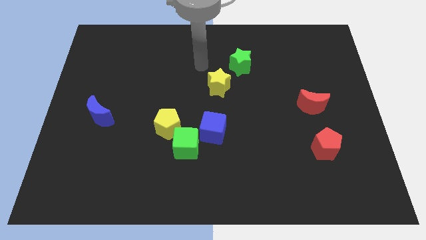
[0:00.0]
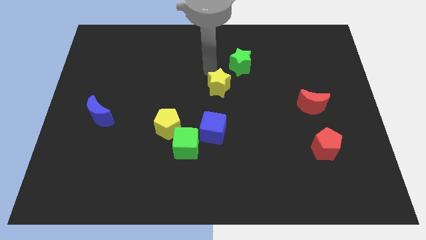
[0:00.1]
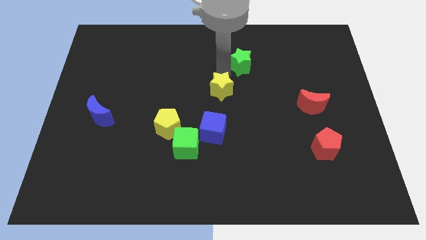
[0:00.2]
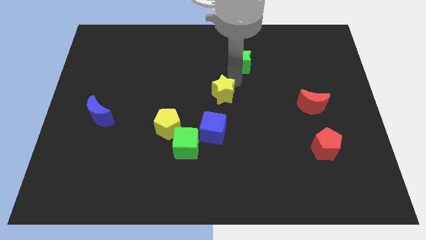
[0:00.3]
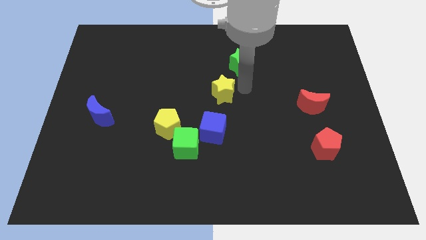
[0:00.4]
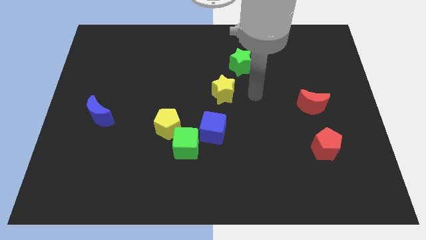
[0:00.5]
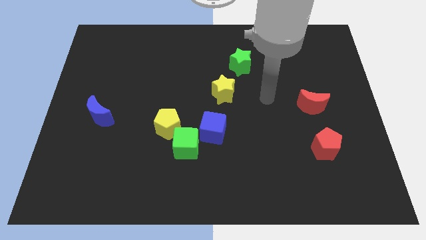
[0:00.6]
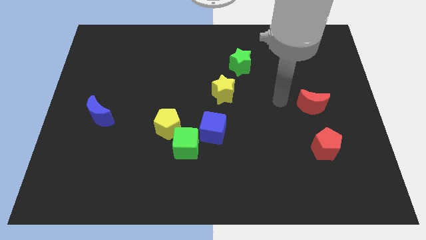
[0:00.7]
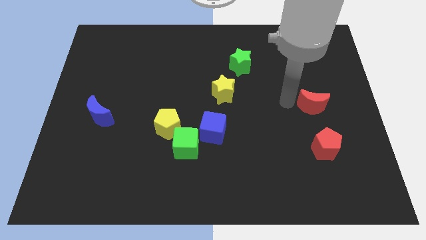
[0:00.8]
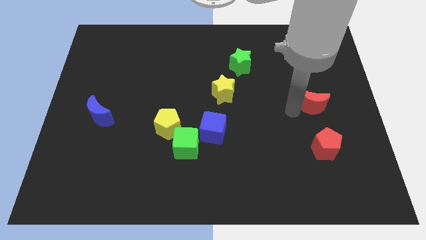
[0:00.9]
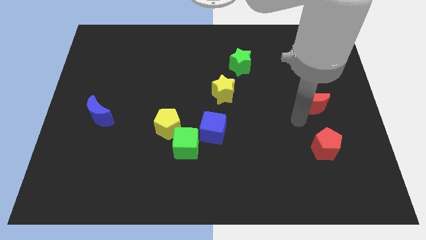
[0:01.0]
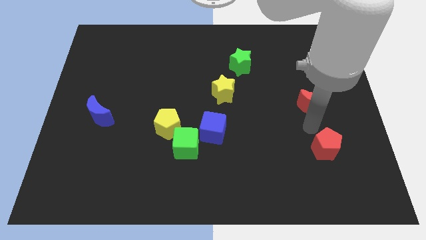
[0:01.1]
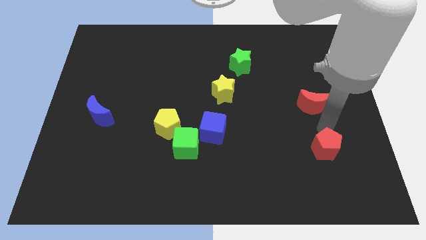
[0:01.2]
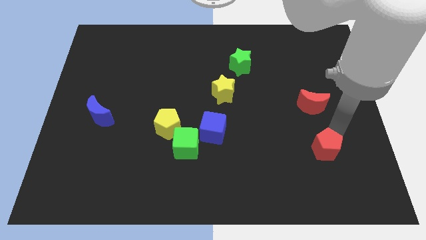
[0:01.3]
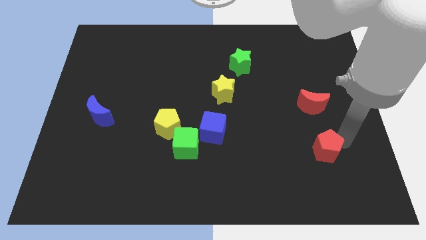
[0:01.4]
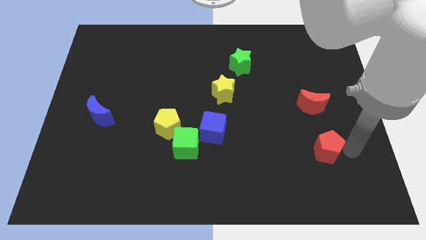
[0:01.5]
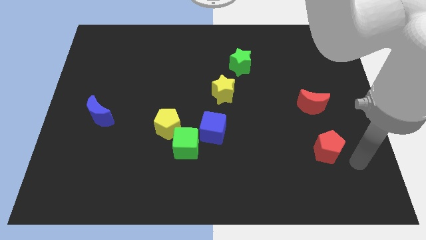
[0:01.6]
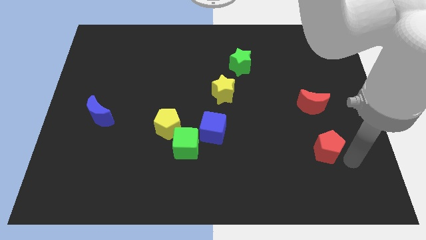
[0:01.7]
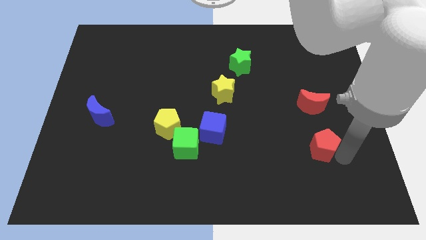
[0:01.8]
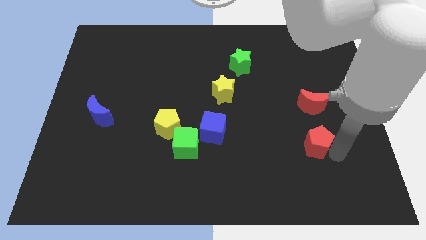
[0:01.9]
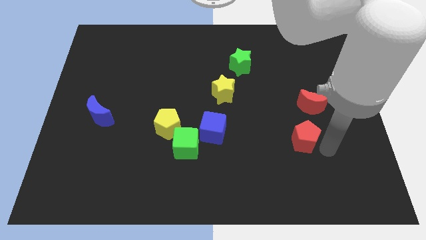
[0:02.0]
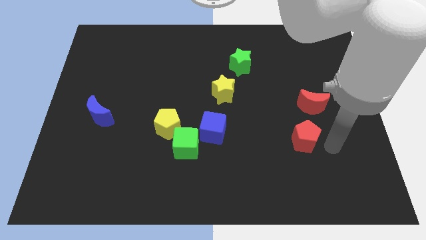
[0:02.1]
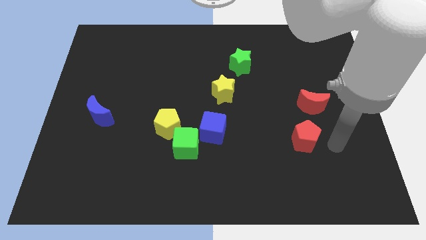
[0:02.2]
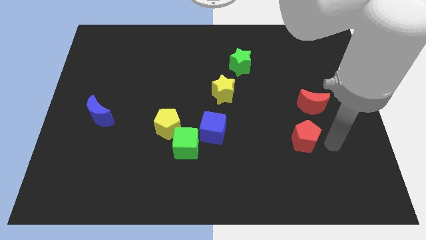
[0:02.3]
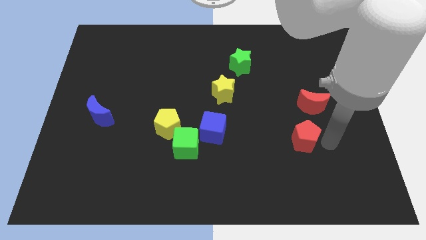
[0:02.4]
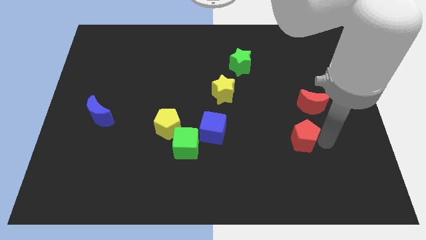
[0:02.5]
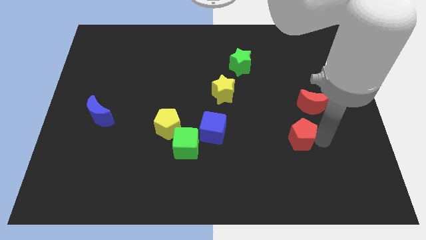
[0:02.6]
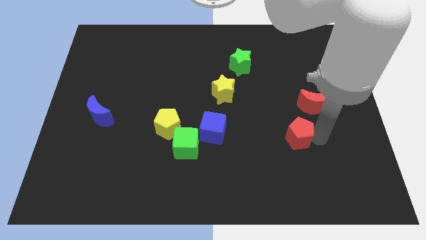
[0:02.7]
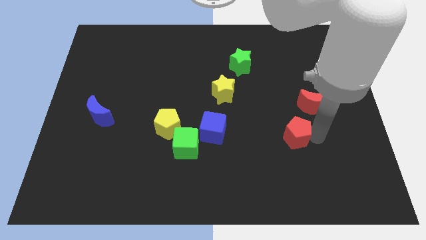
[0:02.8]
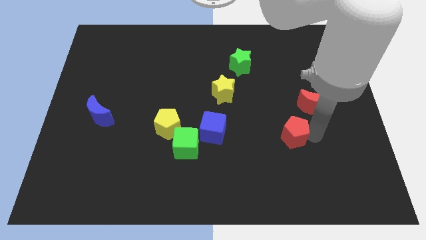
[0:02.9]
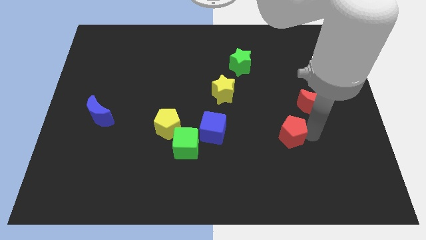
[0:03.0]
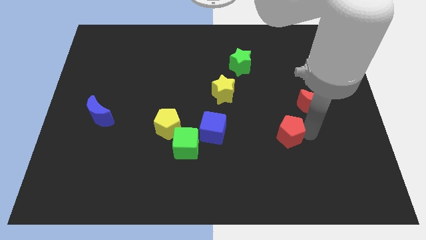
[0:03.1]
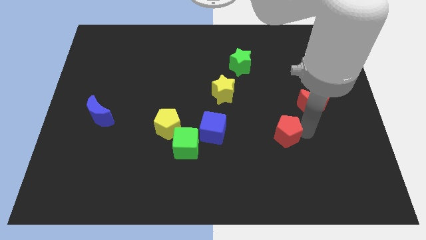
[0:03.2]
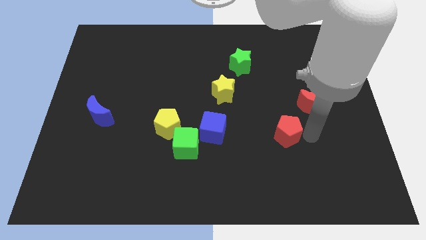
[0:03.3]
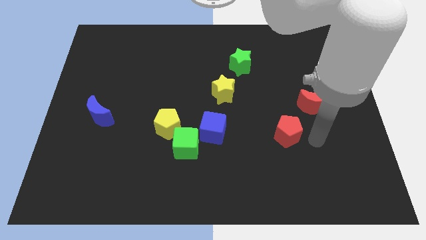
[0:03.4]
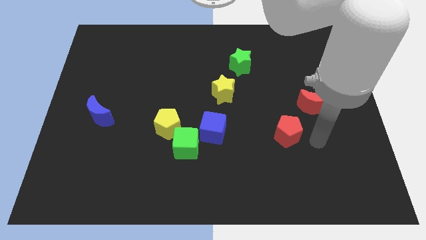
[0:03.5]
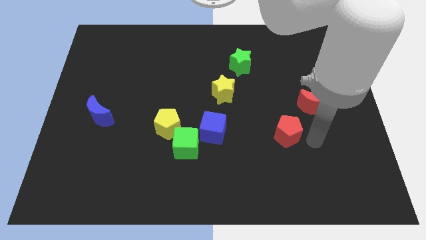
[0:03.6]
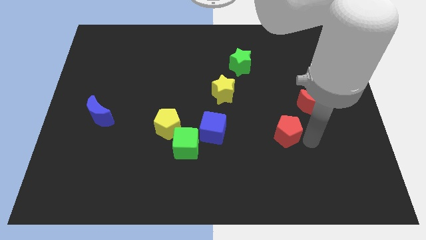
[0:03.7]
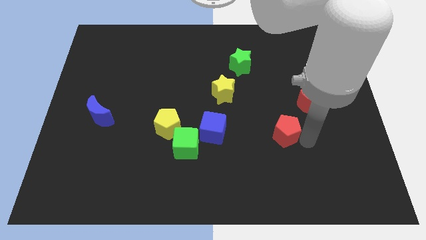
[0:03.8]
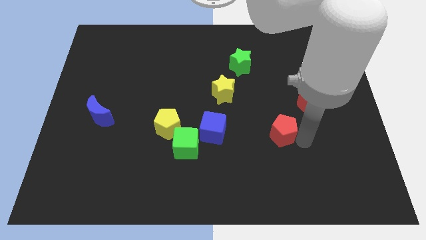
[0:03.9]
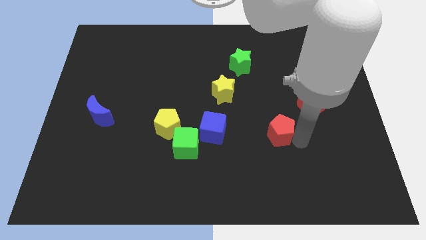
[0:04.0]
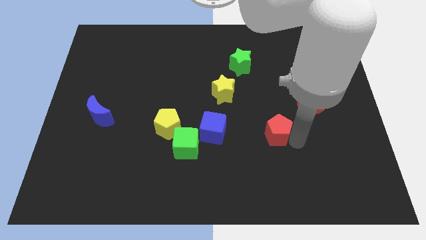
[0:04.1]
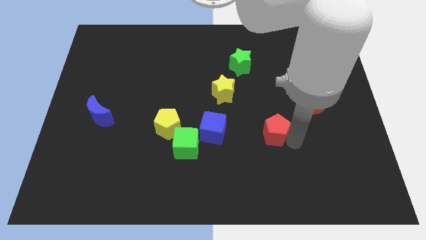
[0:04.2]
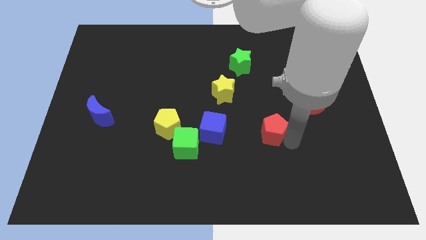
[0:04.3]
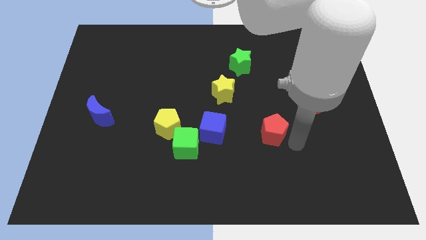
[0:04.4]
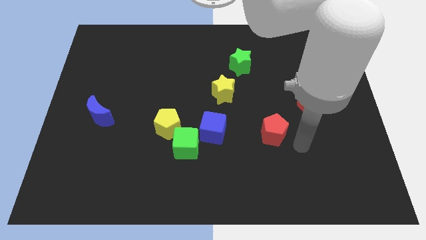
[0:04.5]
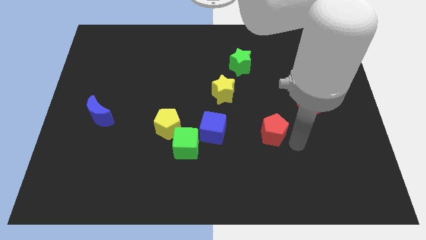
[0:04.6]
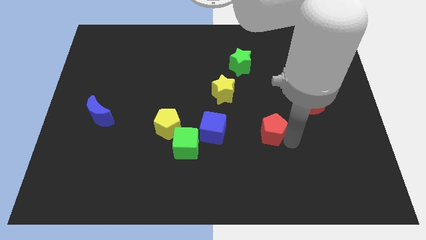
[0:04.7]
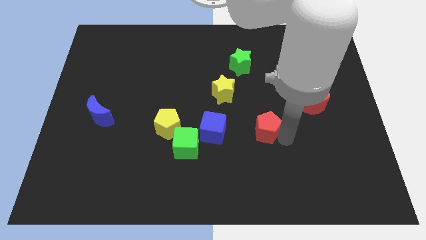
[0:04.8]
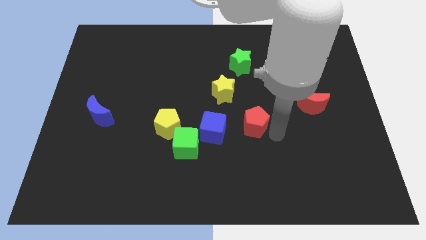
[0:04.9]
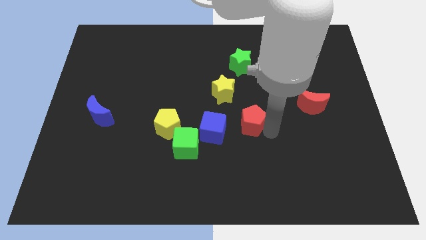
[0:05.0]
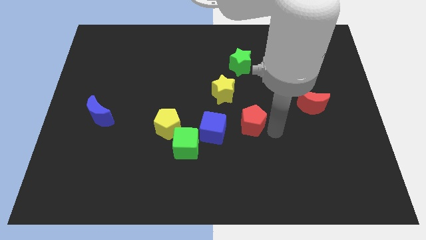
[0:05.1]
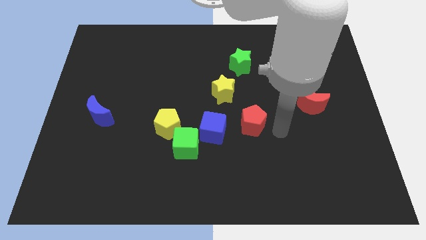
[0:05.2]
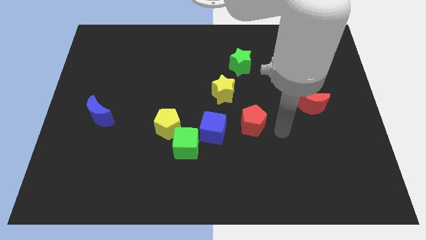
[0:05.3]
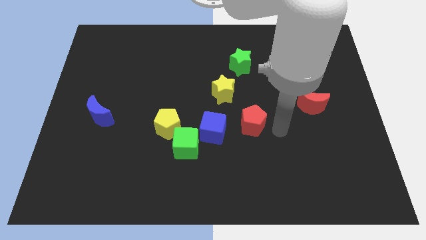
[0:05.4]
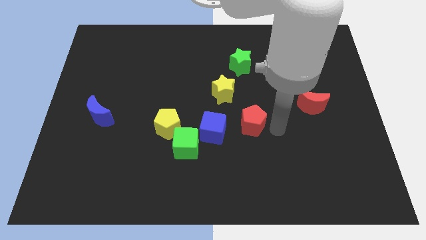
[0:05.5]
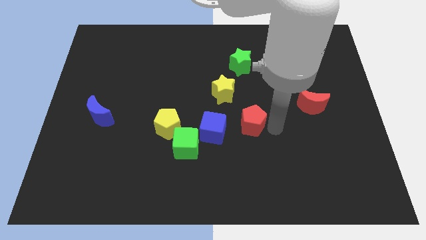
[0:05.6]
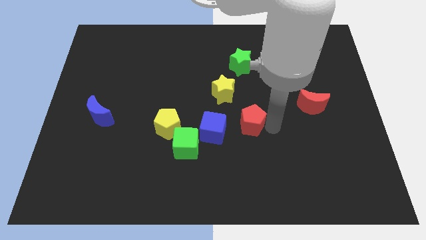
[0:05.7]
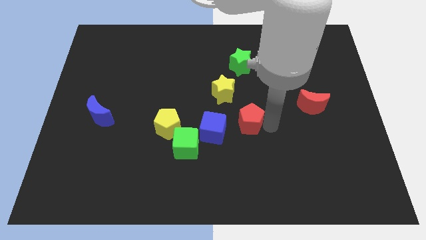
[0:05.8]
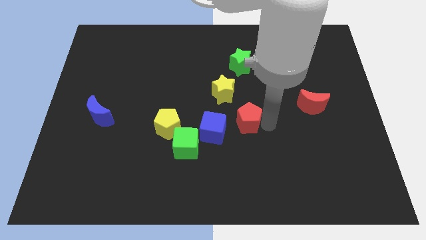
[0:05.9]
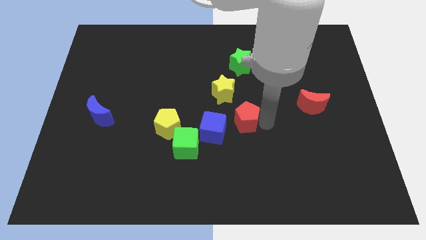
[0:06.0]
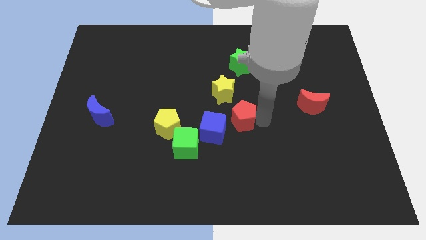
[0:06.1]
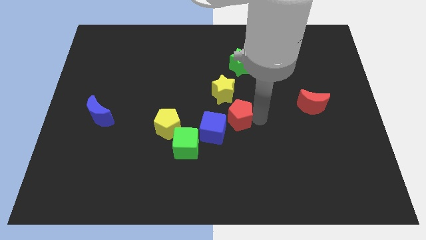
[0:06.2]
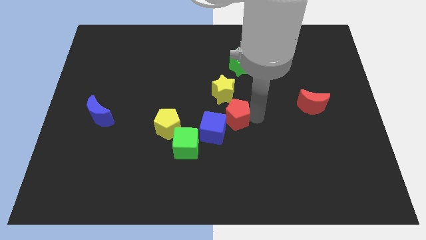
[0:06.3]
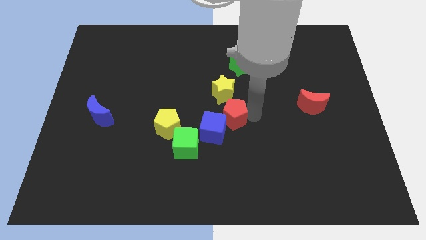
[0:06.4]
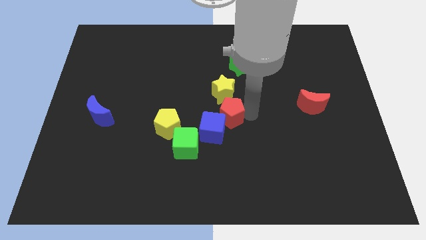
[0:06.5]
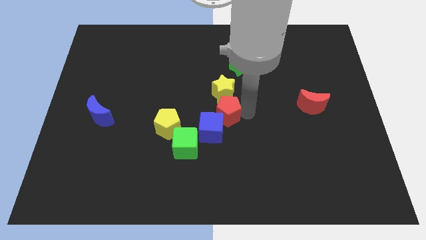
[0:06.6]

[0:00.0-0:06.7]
put the red pentagon to the top right of the green cube

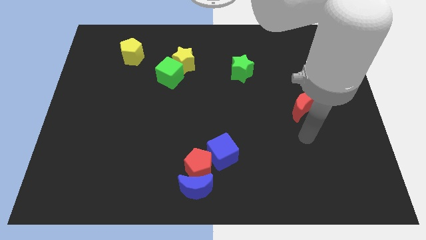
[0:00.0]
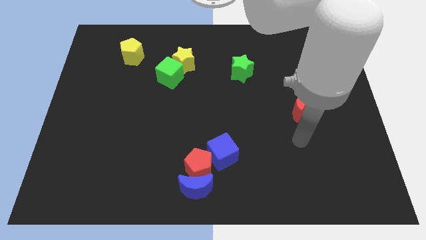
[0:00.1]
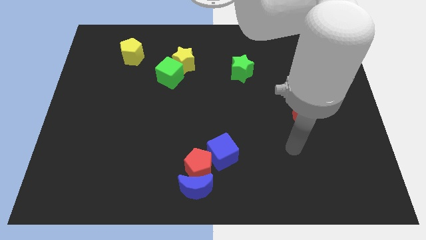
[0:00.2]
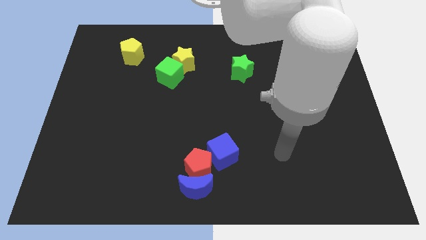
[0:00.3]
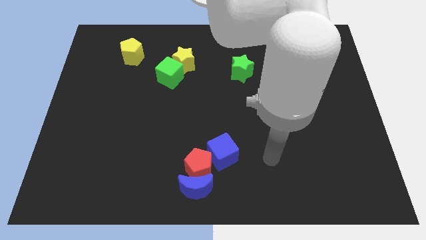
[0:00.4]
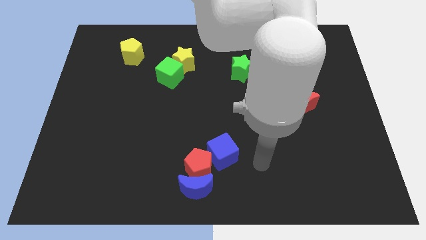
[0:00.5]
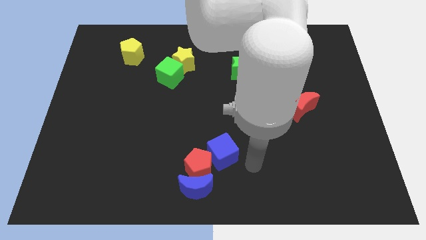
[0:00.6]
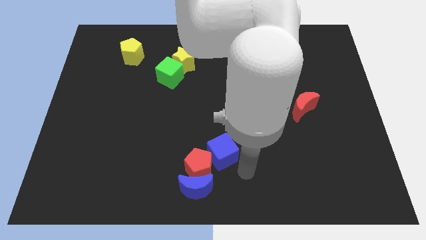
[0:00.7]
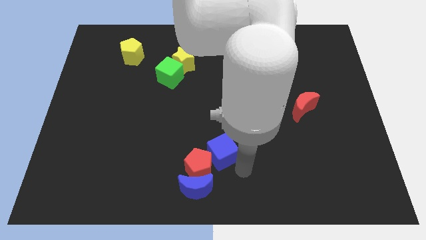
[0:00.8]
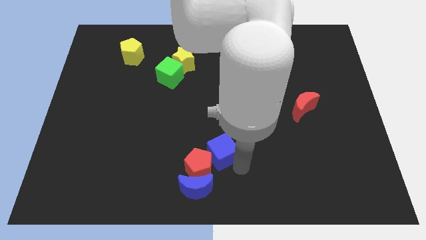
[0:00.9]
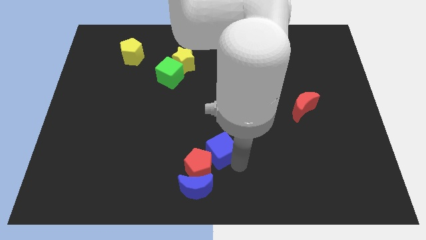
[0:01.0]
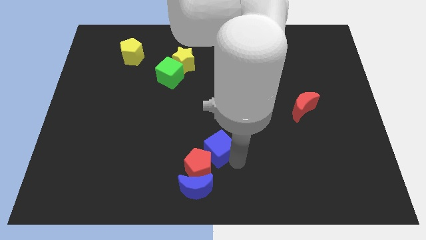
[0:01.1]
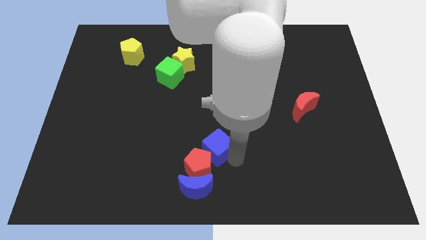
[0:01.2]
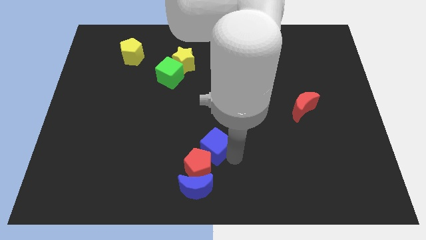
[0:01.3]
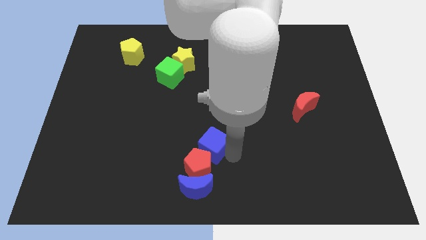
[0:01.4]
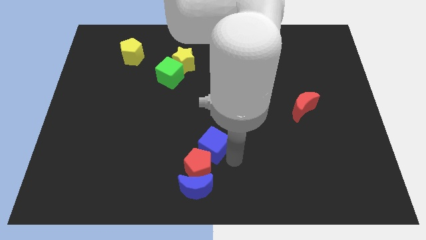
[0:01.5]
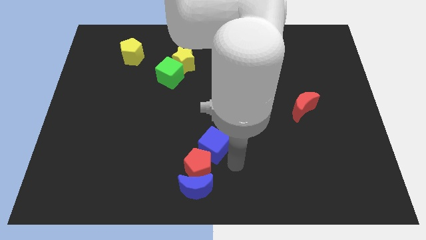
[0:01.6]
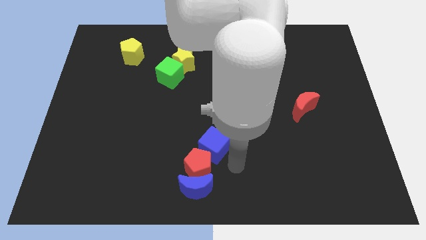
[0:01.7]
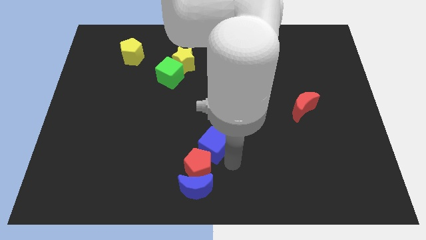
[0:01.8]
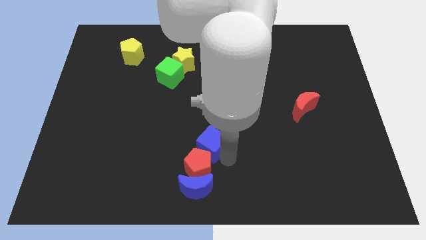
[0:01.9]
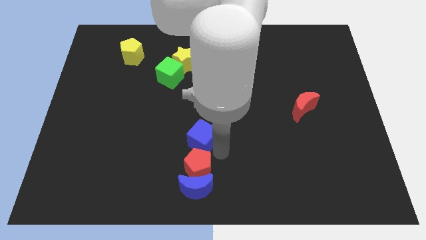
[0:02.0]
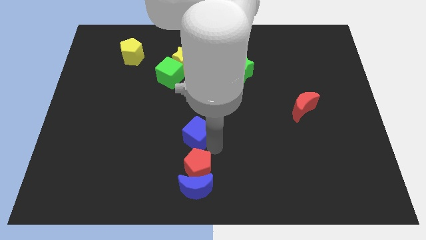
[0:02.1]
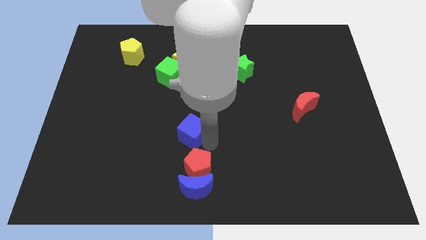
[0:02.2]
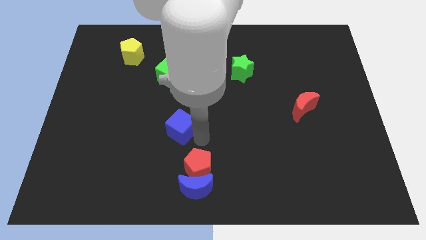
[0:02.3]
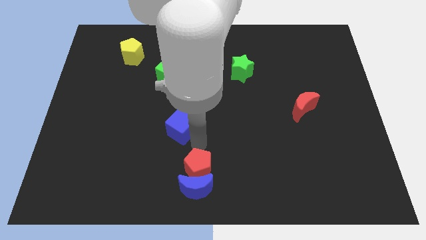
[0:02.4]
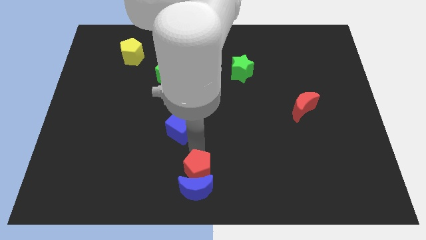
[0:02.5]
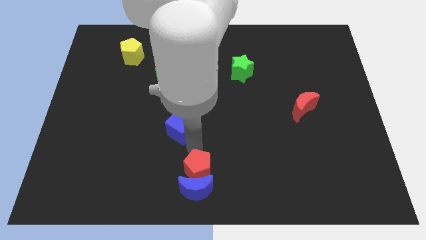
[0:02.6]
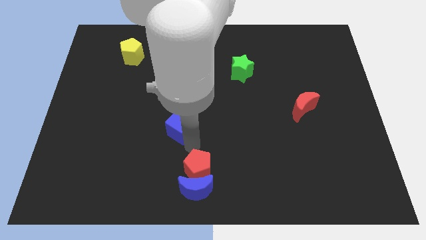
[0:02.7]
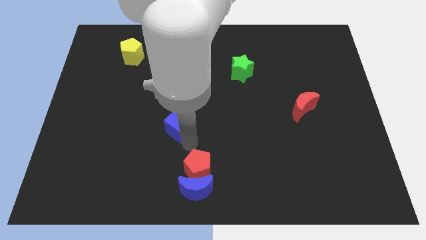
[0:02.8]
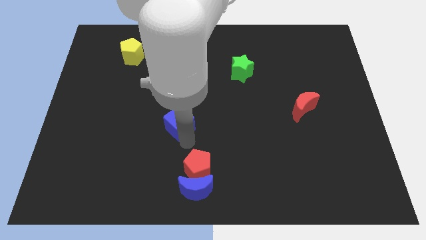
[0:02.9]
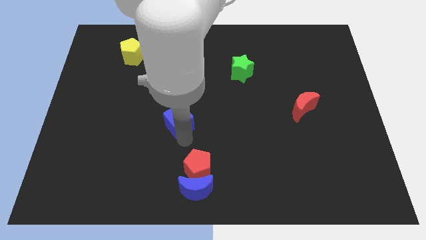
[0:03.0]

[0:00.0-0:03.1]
push the blue cube to the bottom side of the green cube
